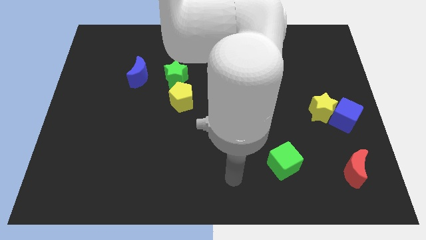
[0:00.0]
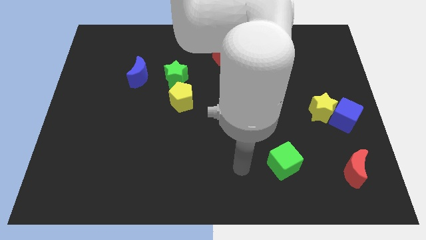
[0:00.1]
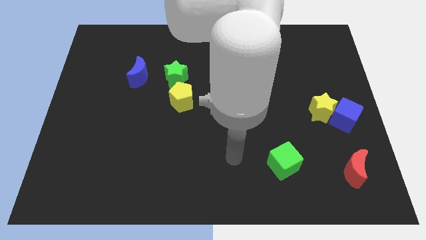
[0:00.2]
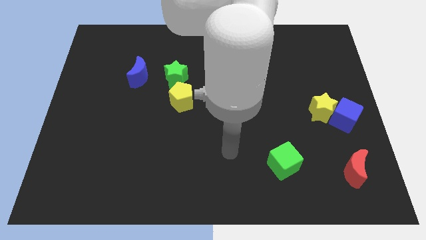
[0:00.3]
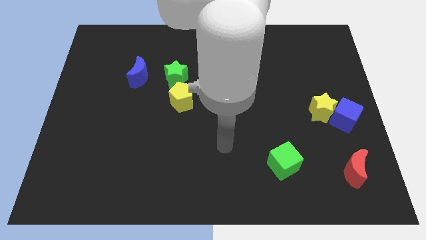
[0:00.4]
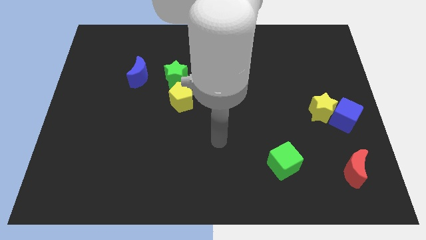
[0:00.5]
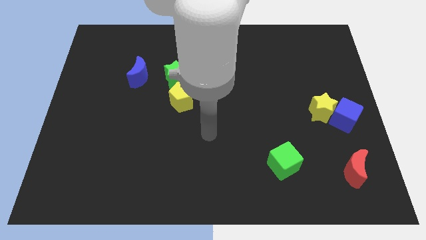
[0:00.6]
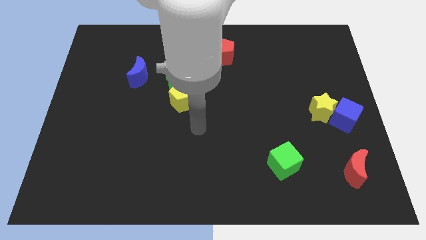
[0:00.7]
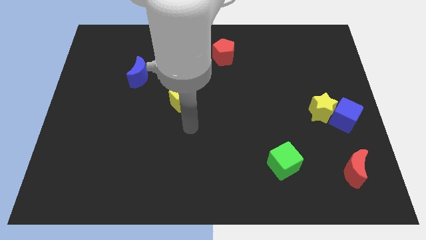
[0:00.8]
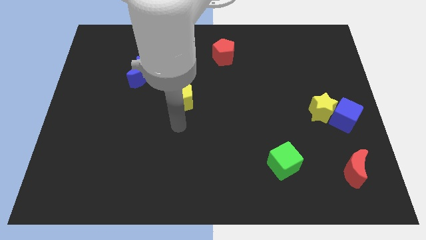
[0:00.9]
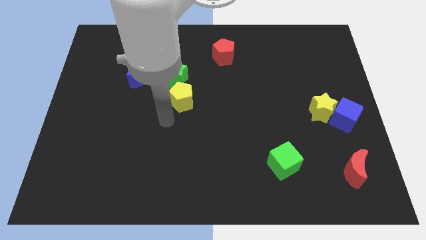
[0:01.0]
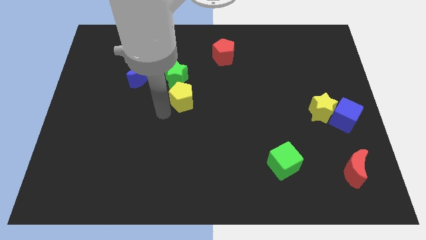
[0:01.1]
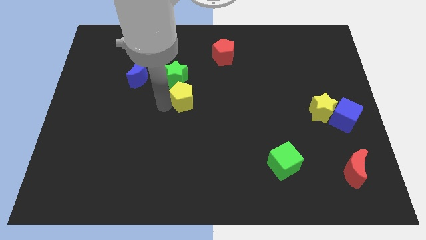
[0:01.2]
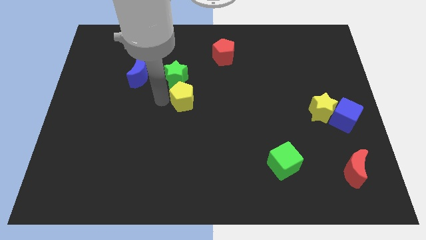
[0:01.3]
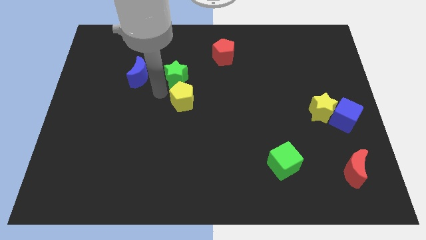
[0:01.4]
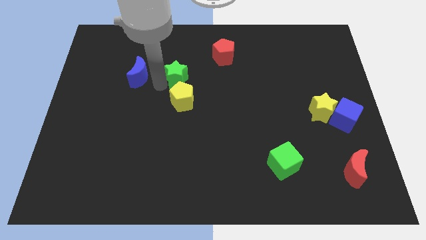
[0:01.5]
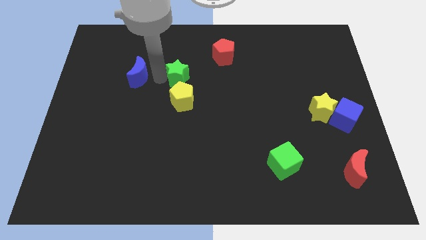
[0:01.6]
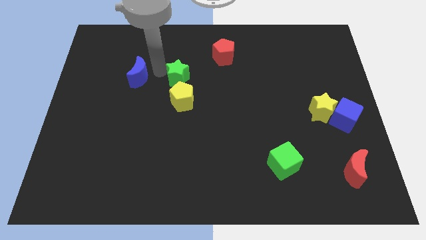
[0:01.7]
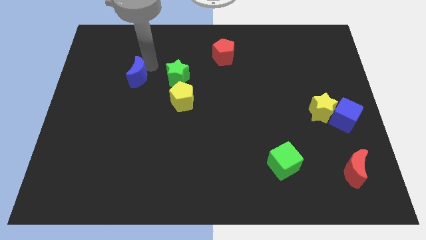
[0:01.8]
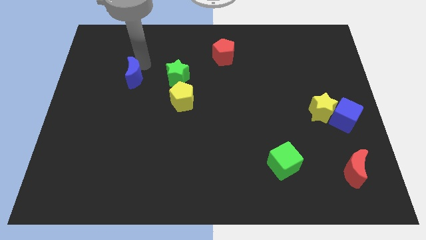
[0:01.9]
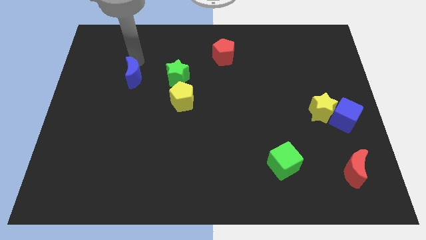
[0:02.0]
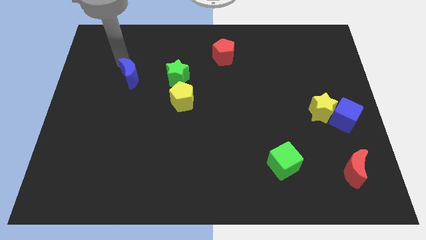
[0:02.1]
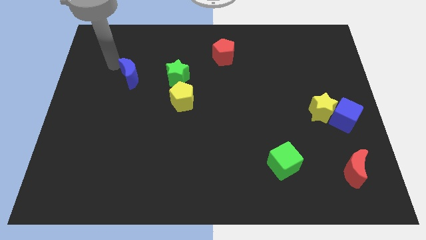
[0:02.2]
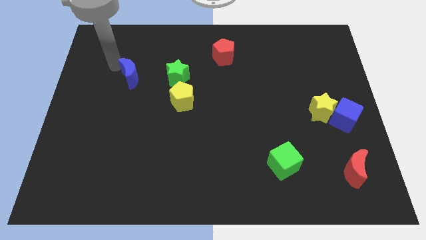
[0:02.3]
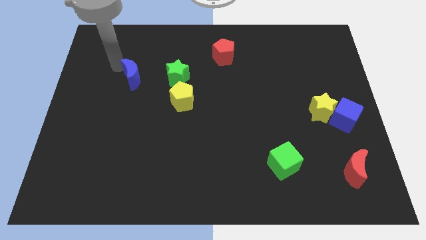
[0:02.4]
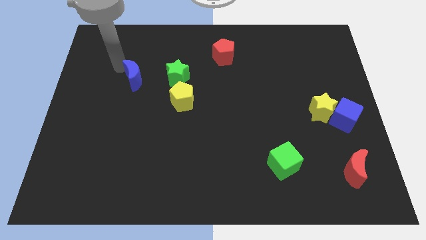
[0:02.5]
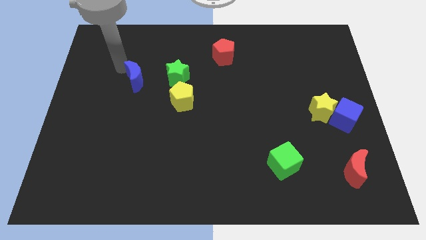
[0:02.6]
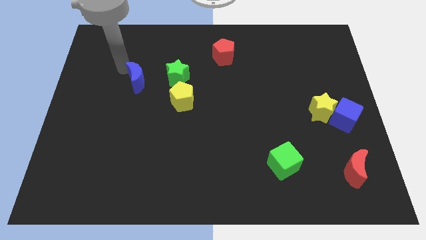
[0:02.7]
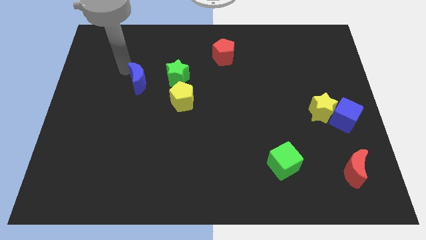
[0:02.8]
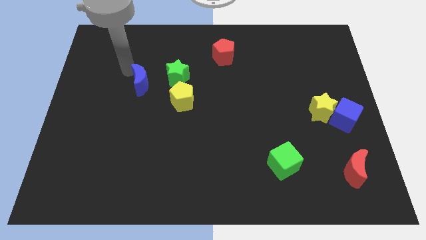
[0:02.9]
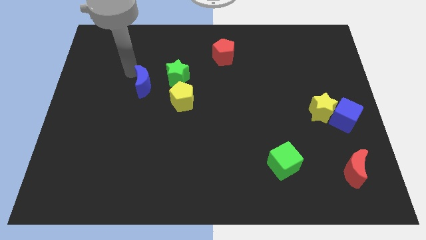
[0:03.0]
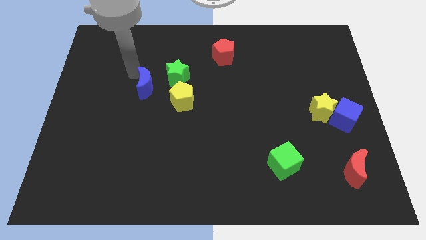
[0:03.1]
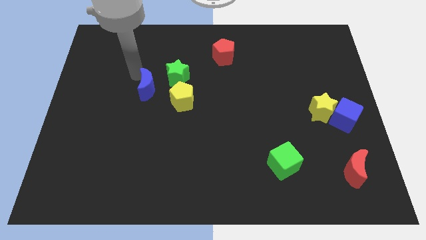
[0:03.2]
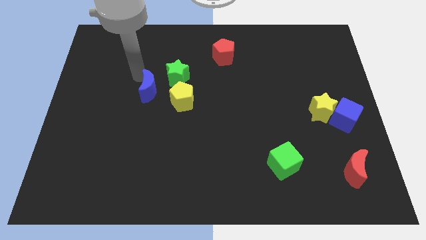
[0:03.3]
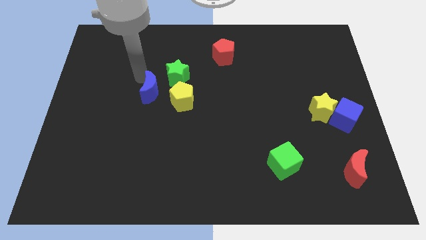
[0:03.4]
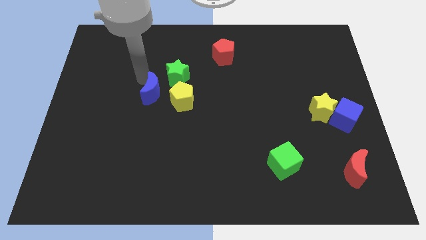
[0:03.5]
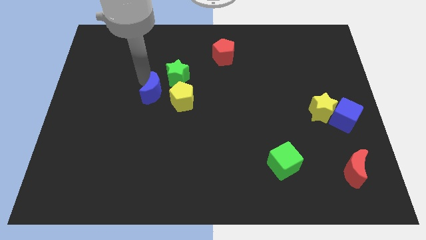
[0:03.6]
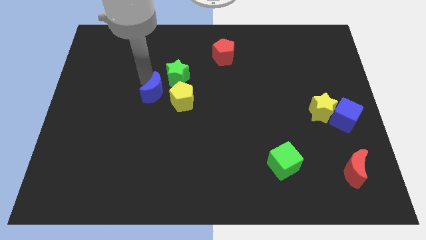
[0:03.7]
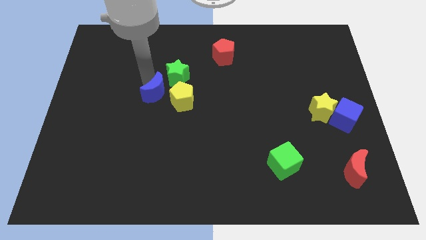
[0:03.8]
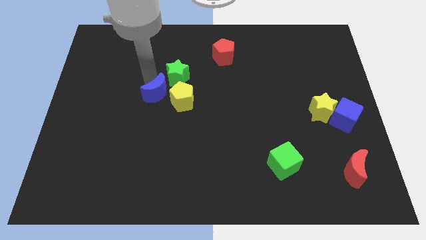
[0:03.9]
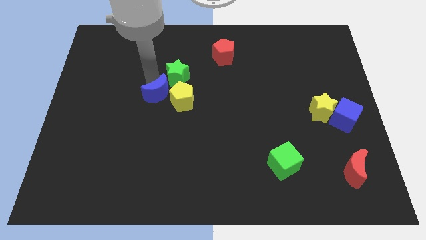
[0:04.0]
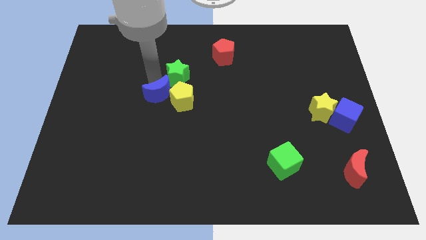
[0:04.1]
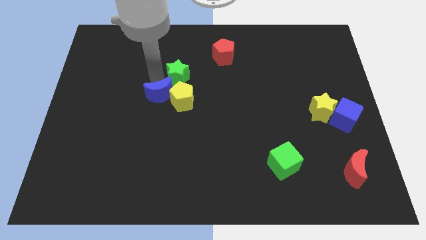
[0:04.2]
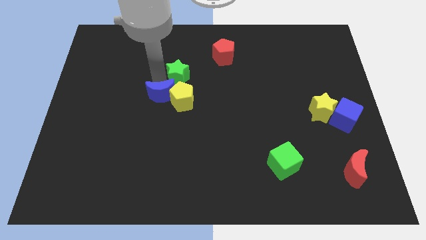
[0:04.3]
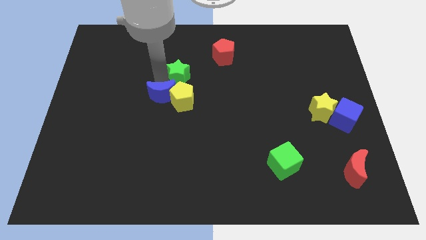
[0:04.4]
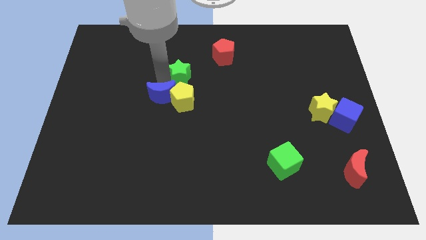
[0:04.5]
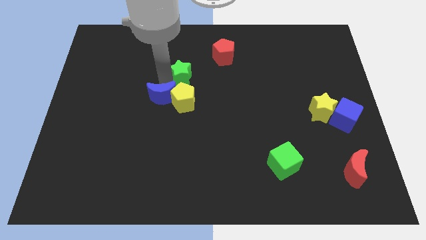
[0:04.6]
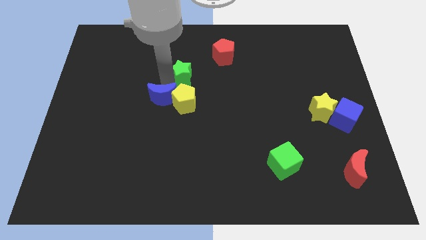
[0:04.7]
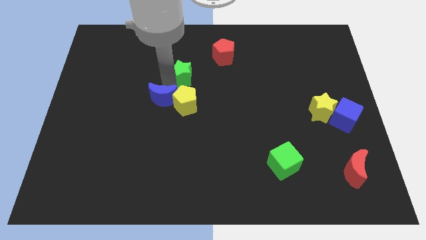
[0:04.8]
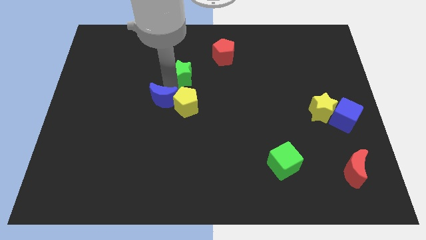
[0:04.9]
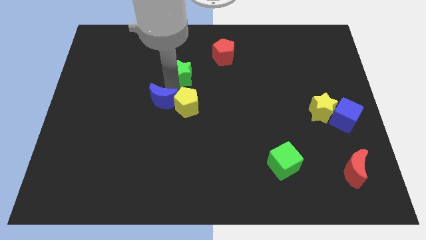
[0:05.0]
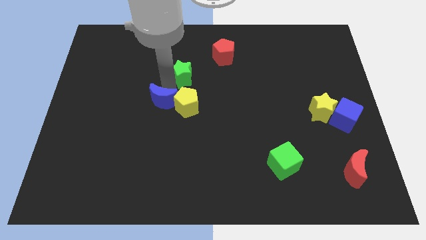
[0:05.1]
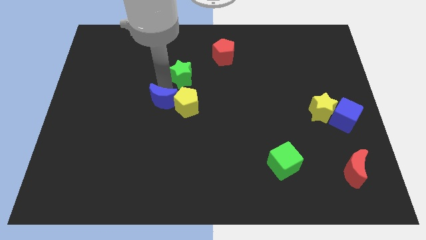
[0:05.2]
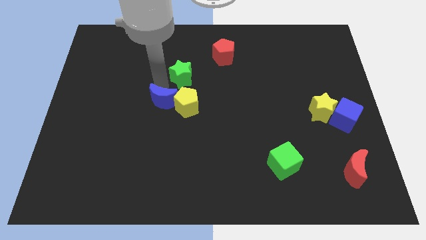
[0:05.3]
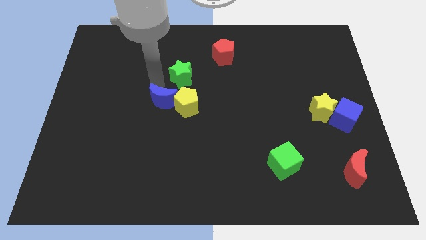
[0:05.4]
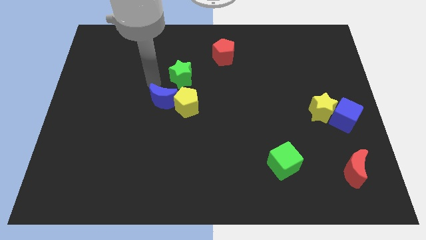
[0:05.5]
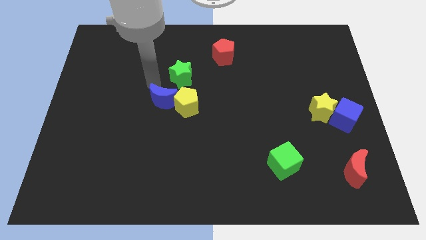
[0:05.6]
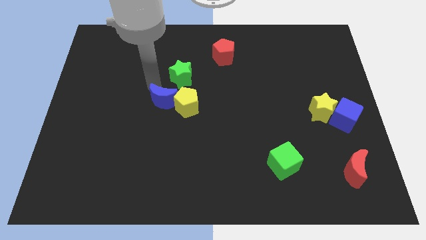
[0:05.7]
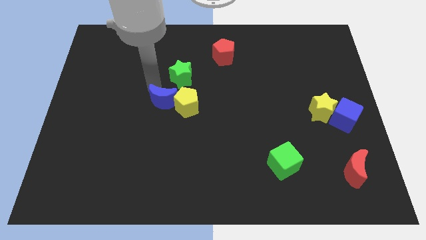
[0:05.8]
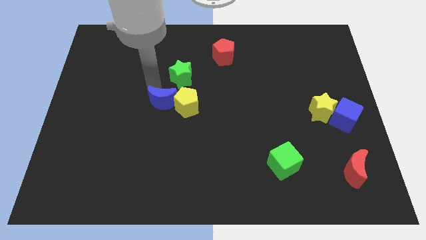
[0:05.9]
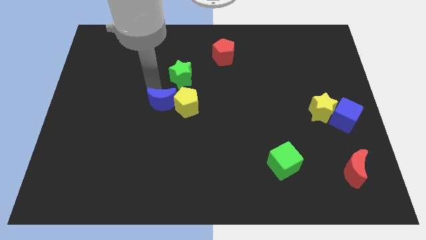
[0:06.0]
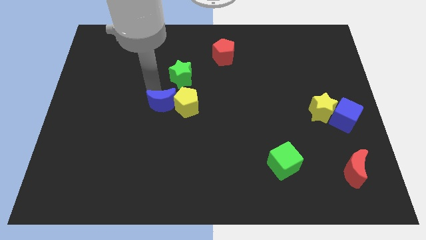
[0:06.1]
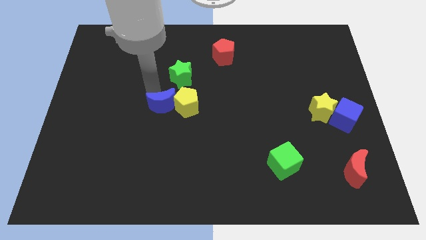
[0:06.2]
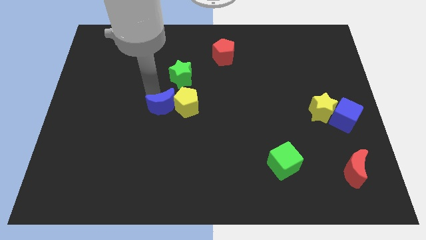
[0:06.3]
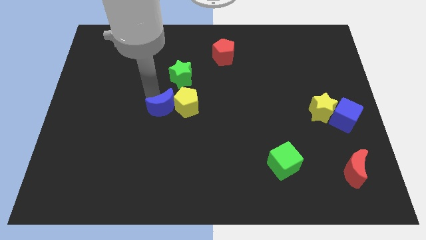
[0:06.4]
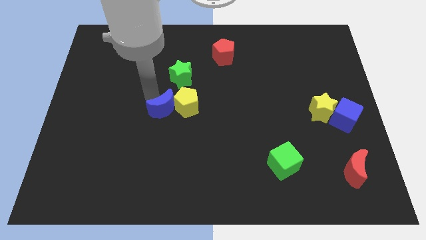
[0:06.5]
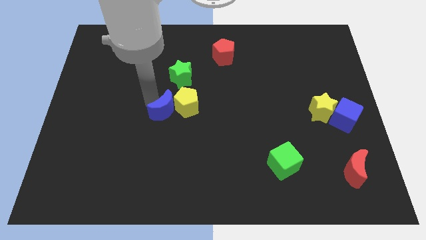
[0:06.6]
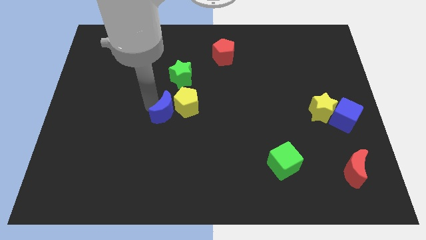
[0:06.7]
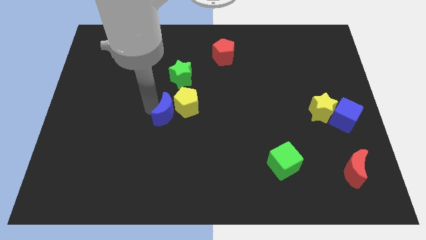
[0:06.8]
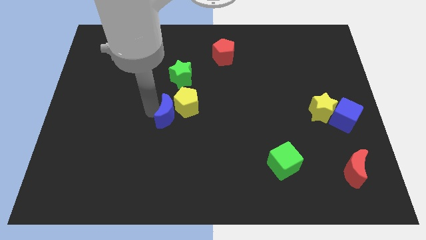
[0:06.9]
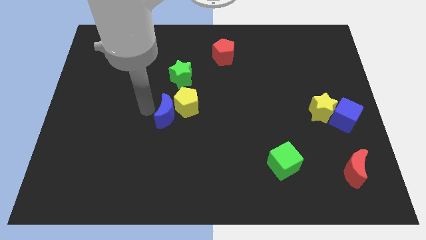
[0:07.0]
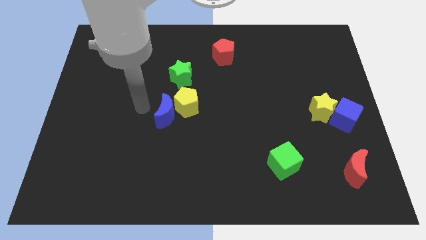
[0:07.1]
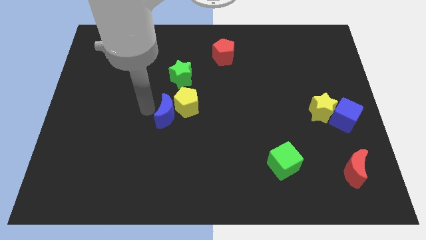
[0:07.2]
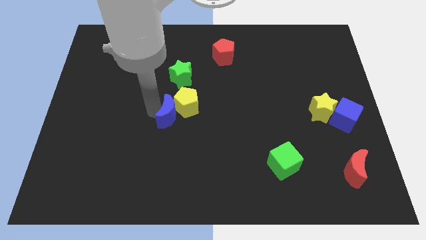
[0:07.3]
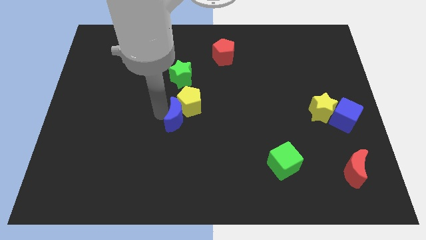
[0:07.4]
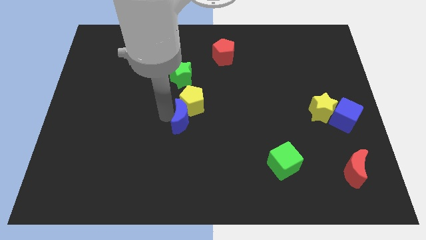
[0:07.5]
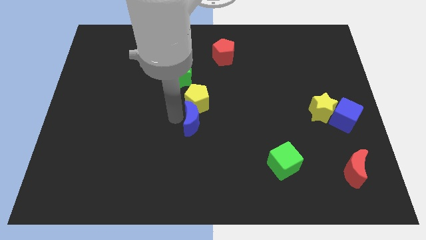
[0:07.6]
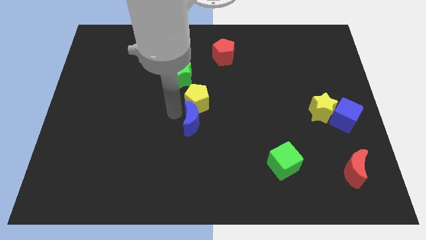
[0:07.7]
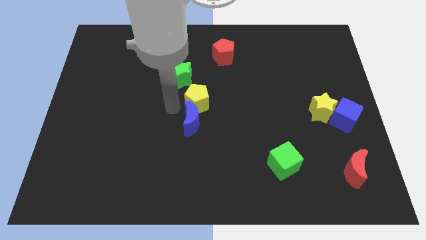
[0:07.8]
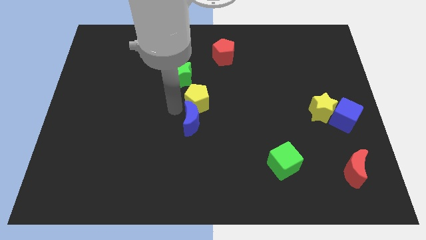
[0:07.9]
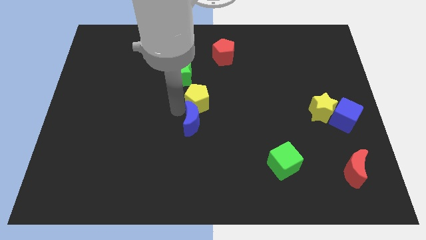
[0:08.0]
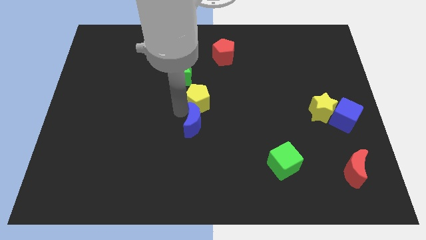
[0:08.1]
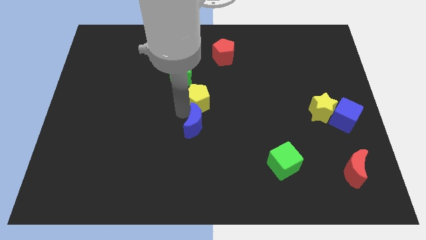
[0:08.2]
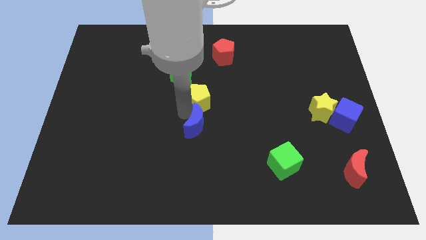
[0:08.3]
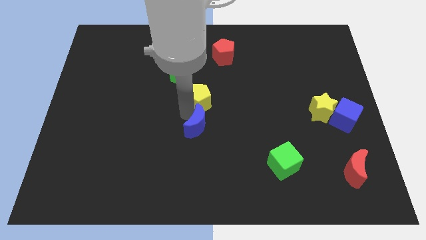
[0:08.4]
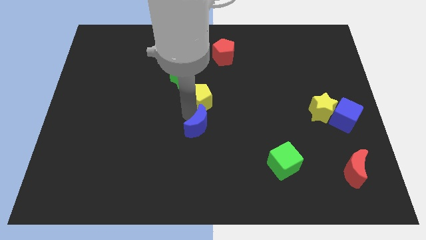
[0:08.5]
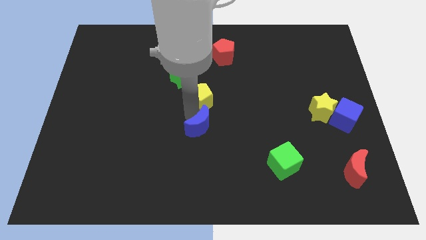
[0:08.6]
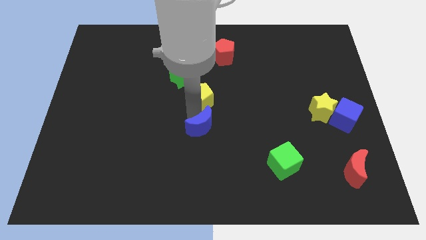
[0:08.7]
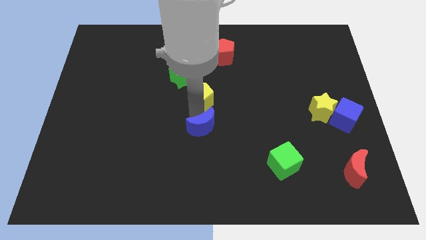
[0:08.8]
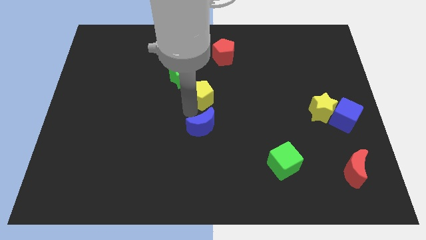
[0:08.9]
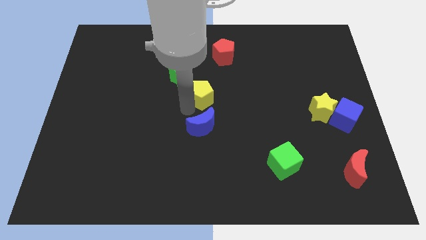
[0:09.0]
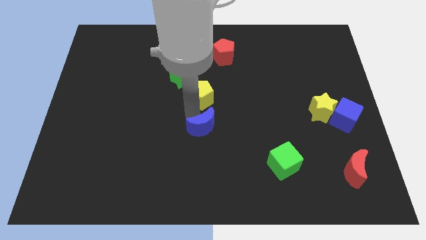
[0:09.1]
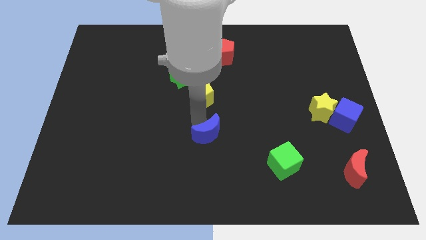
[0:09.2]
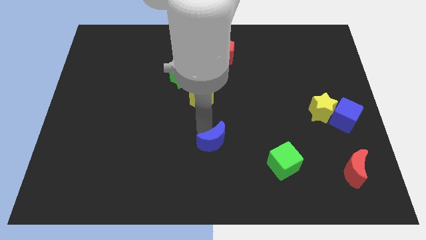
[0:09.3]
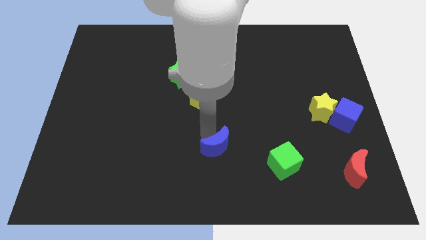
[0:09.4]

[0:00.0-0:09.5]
put the blue moon just left of the green cube
